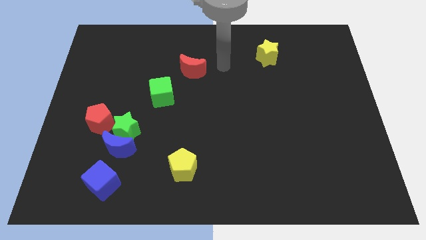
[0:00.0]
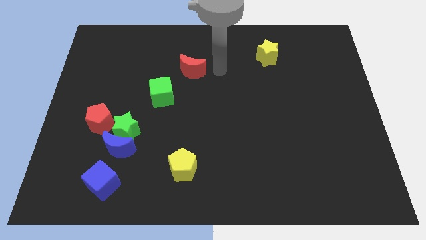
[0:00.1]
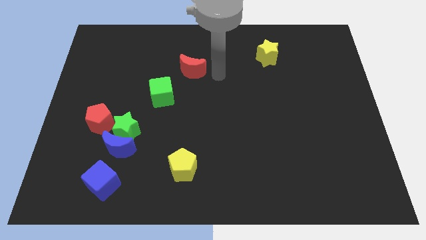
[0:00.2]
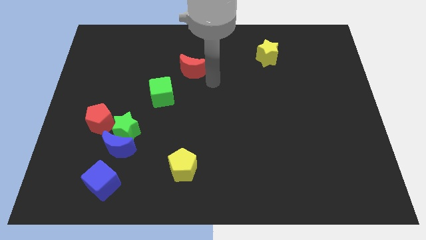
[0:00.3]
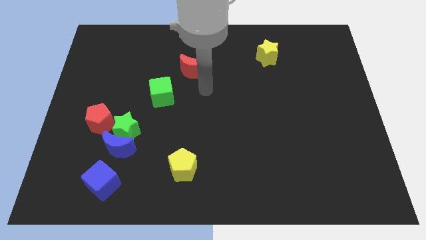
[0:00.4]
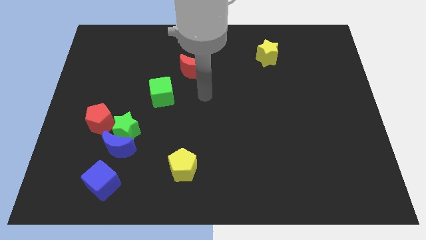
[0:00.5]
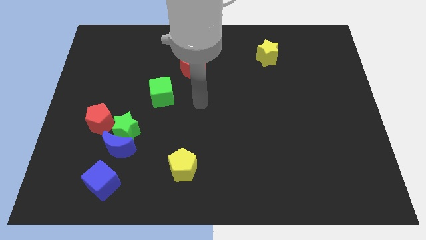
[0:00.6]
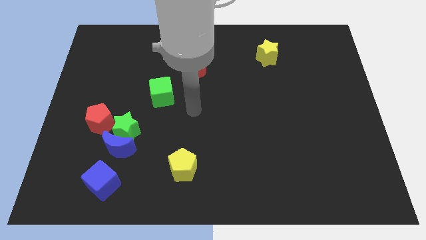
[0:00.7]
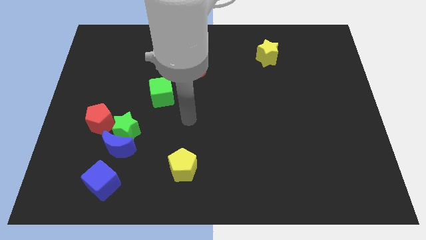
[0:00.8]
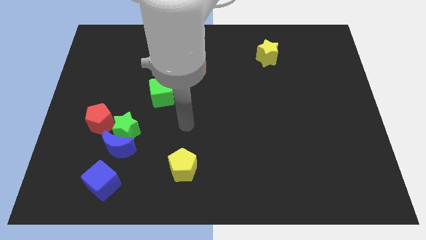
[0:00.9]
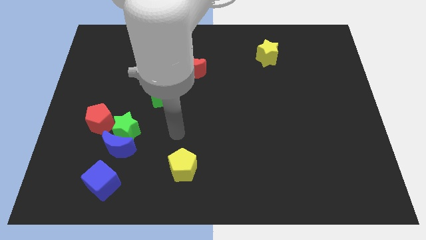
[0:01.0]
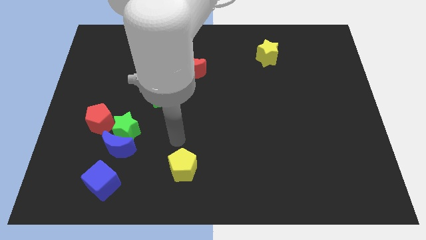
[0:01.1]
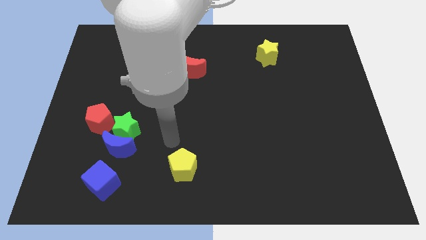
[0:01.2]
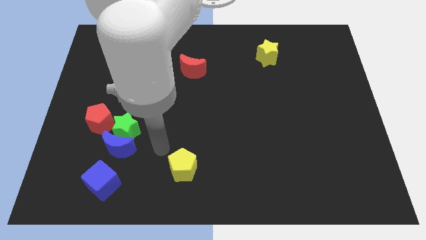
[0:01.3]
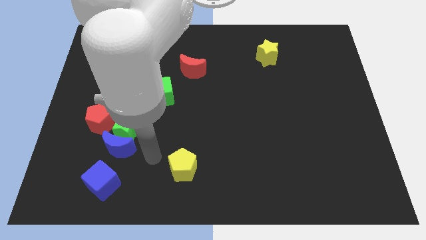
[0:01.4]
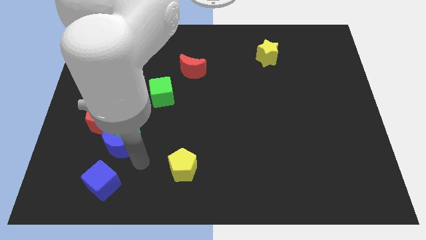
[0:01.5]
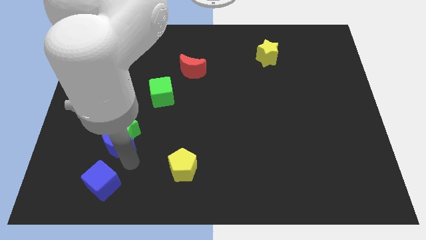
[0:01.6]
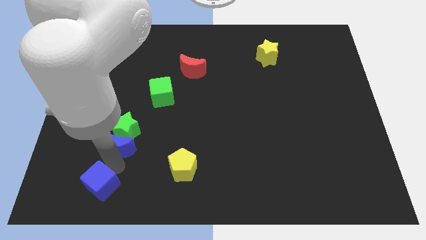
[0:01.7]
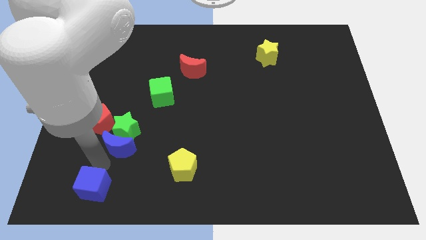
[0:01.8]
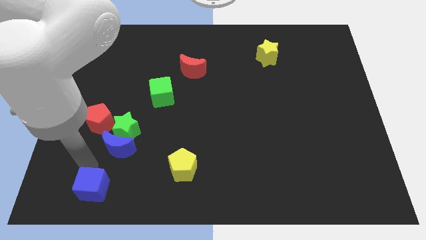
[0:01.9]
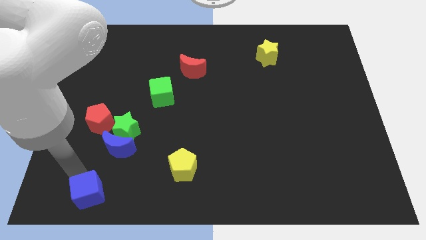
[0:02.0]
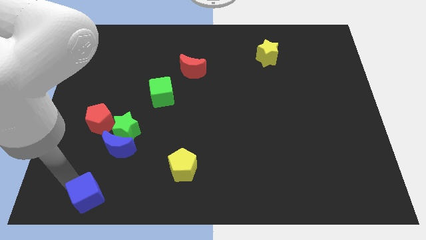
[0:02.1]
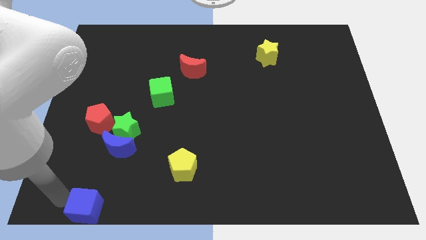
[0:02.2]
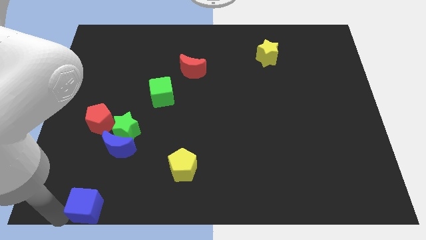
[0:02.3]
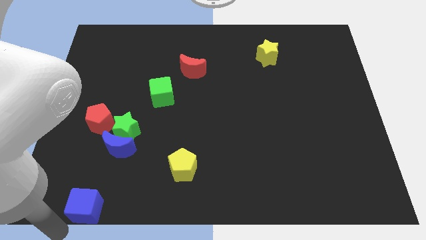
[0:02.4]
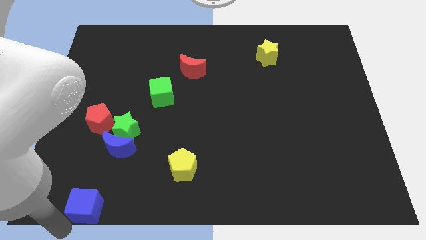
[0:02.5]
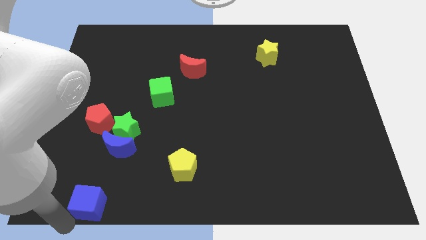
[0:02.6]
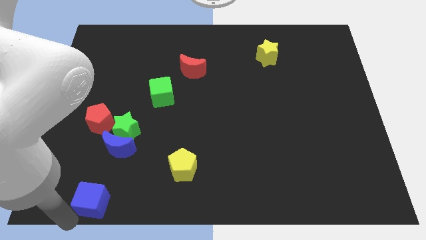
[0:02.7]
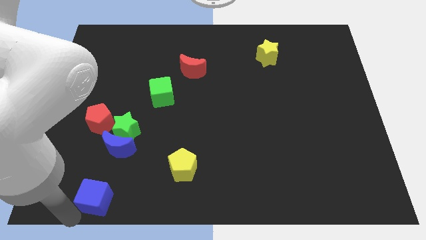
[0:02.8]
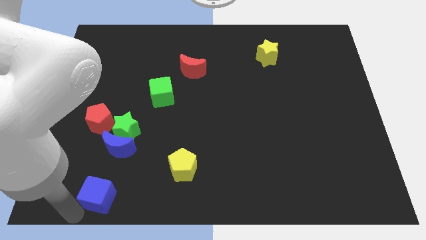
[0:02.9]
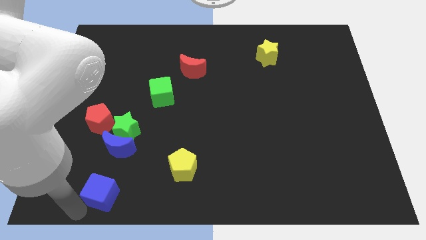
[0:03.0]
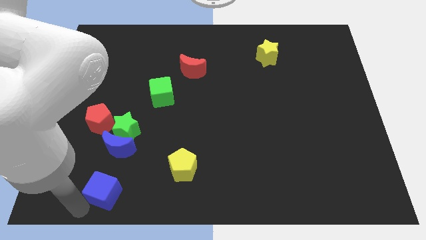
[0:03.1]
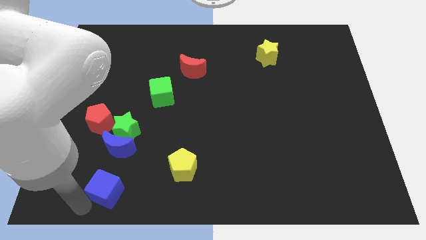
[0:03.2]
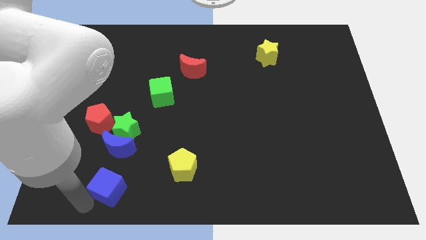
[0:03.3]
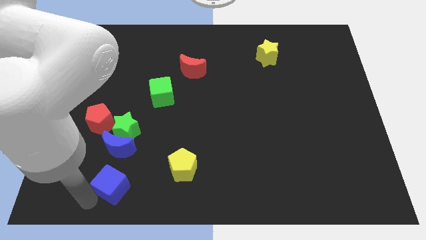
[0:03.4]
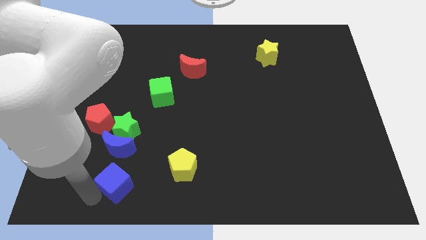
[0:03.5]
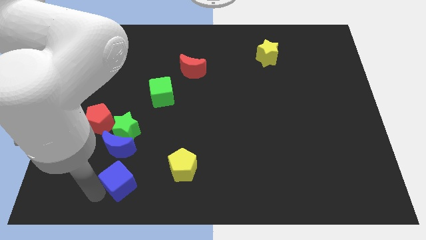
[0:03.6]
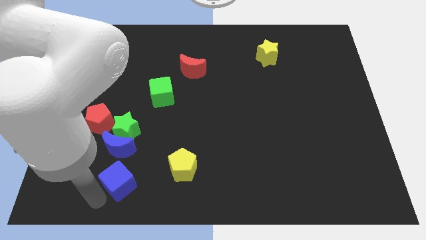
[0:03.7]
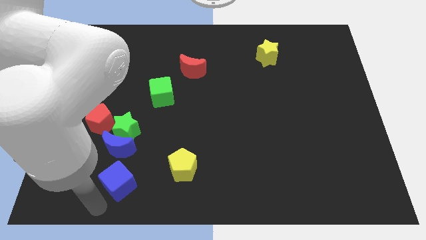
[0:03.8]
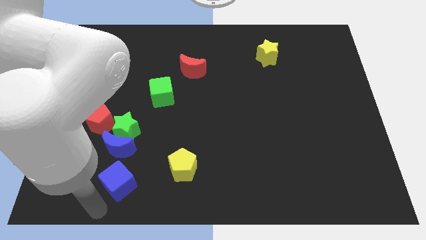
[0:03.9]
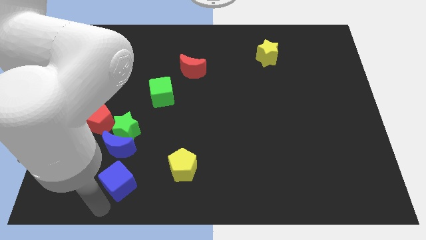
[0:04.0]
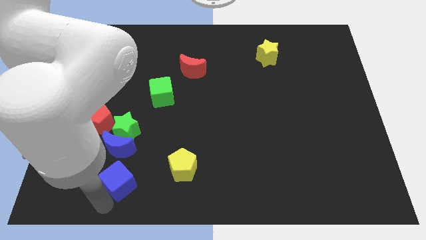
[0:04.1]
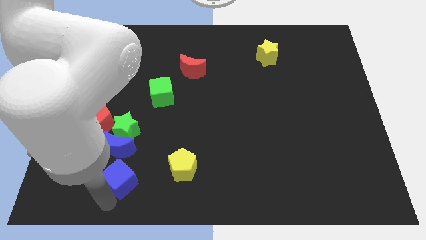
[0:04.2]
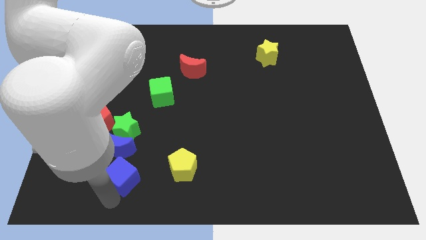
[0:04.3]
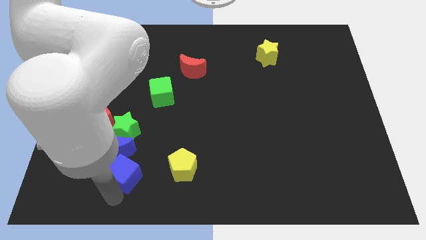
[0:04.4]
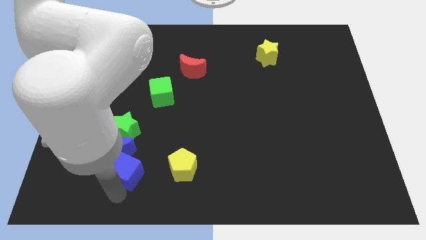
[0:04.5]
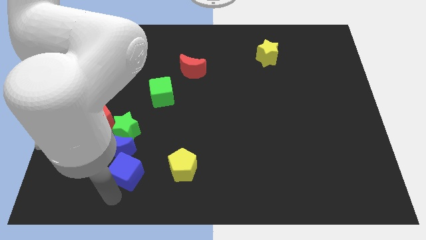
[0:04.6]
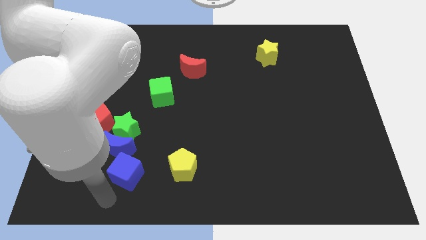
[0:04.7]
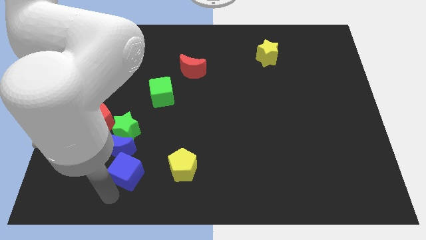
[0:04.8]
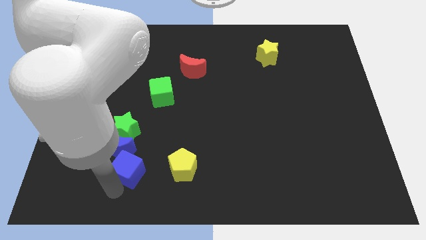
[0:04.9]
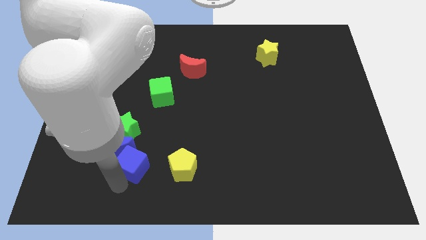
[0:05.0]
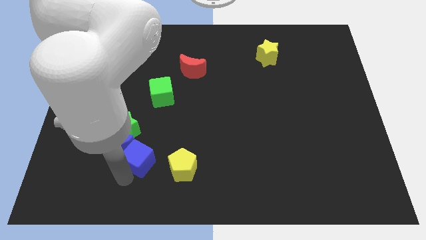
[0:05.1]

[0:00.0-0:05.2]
push the blue cube a little bit diagonally up and to the right

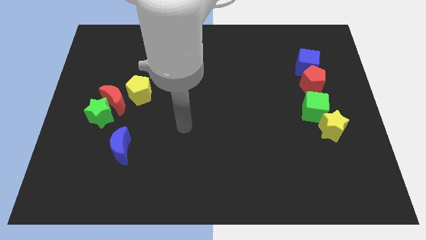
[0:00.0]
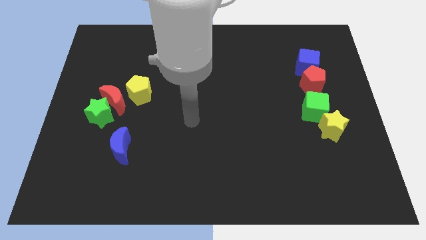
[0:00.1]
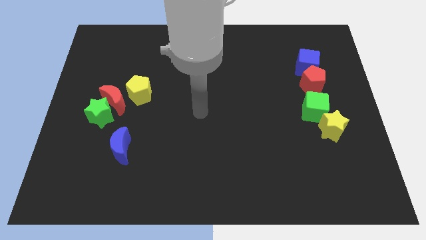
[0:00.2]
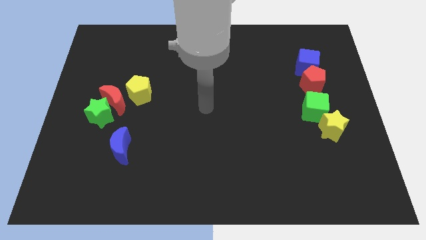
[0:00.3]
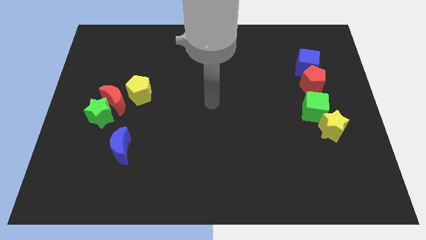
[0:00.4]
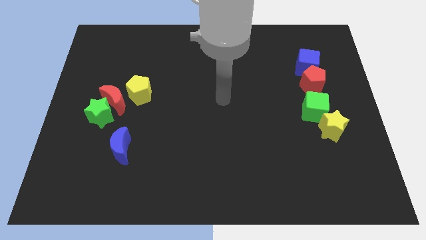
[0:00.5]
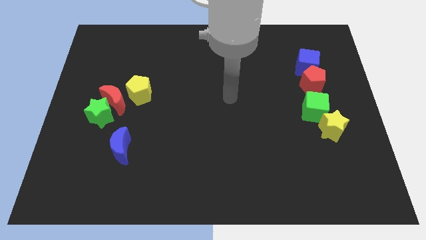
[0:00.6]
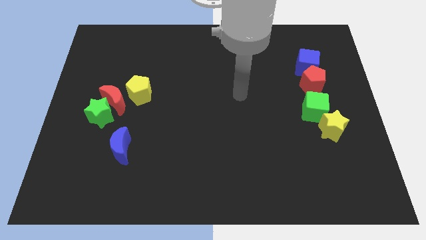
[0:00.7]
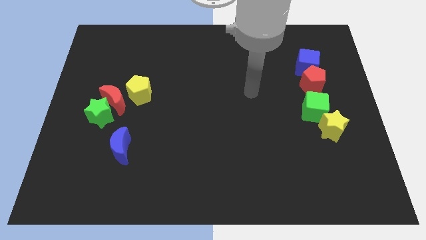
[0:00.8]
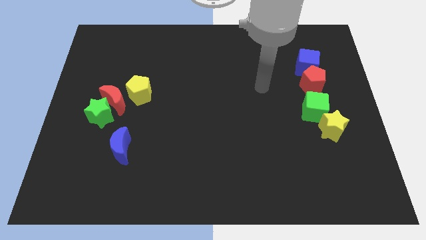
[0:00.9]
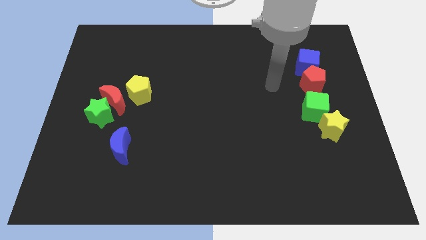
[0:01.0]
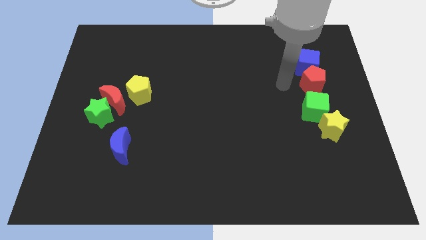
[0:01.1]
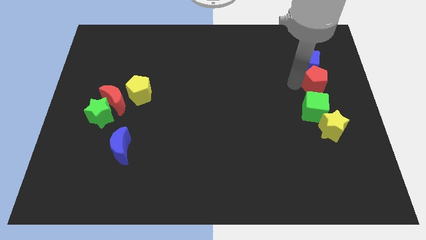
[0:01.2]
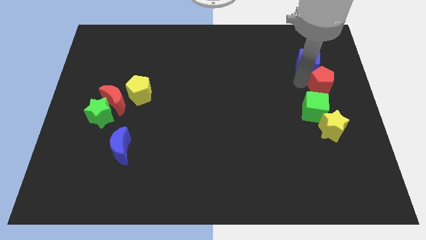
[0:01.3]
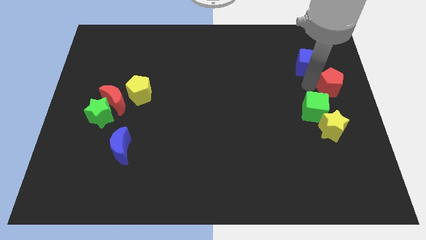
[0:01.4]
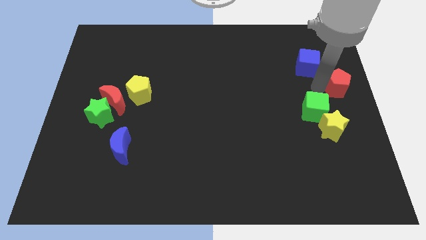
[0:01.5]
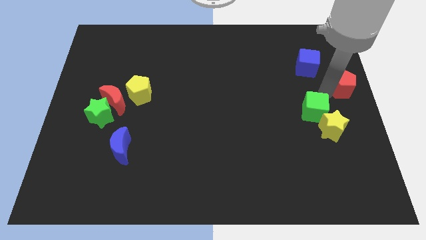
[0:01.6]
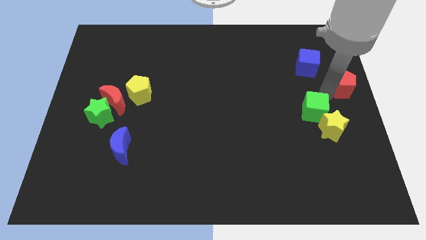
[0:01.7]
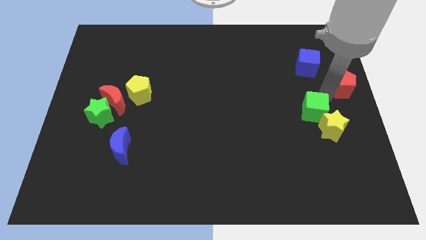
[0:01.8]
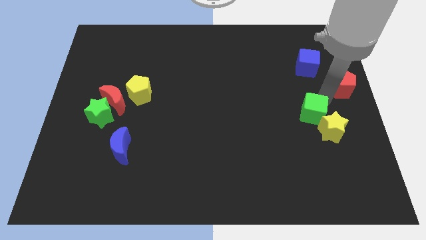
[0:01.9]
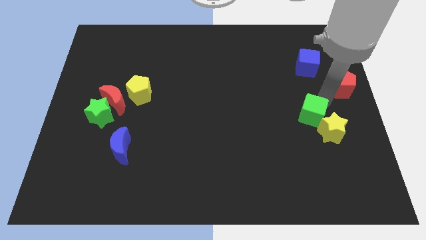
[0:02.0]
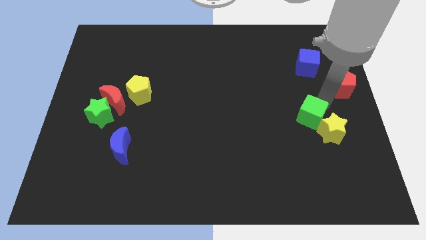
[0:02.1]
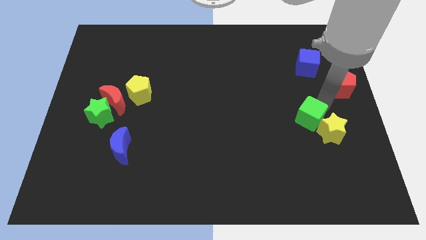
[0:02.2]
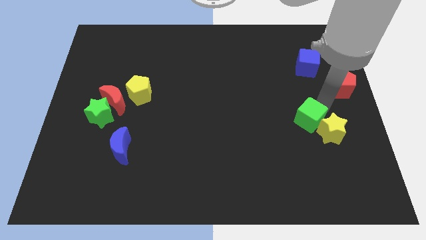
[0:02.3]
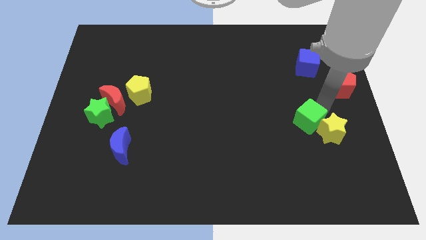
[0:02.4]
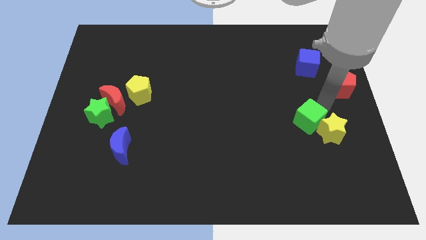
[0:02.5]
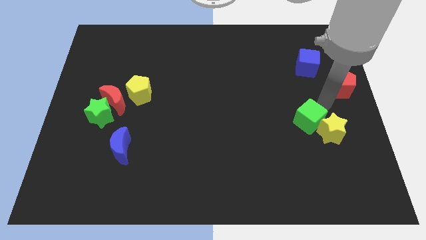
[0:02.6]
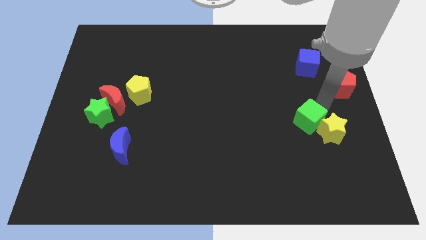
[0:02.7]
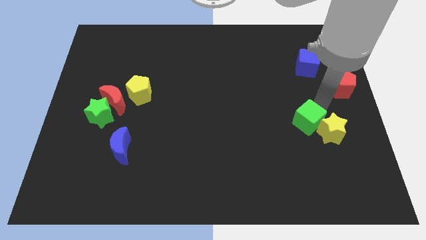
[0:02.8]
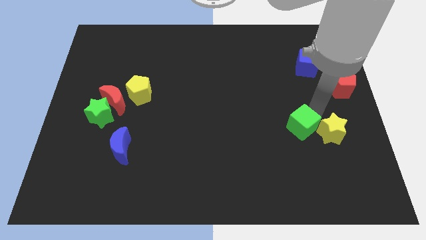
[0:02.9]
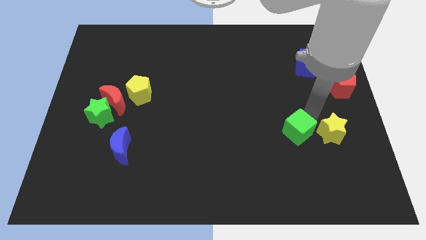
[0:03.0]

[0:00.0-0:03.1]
move the green cube down and then to the left a little bit

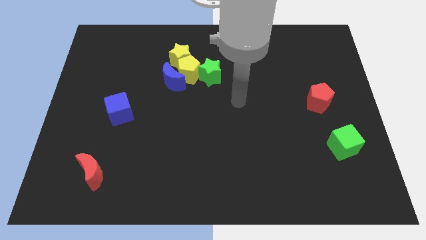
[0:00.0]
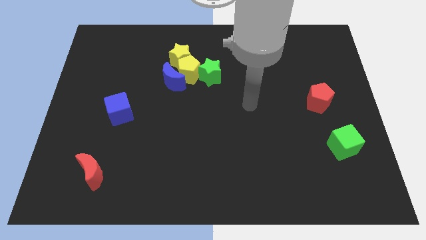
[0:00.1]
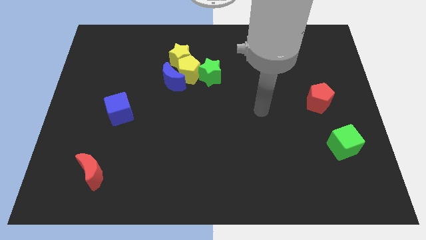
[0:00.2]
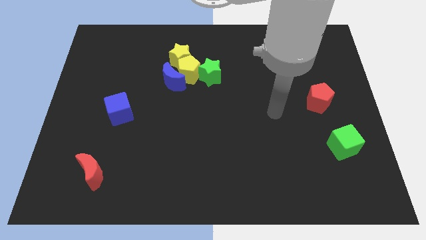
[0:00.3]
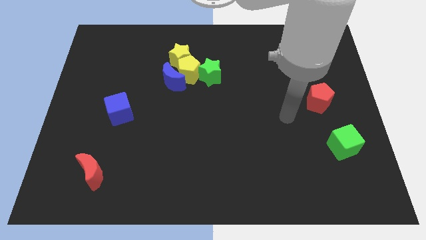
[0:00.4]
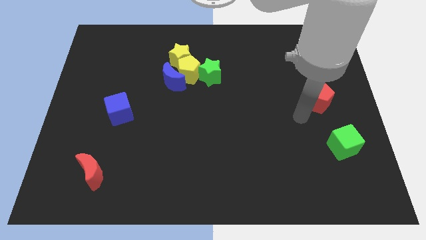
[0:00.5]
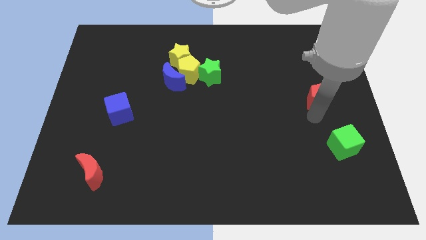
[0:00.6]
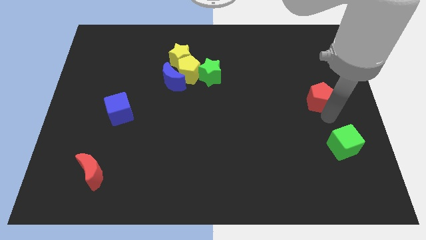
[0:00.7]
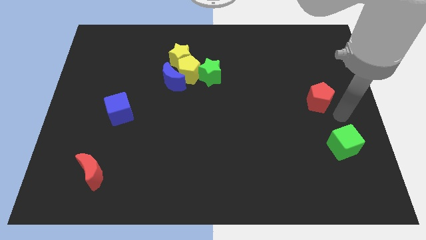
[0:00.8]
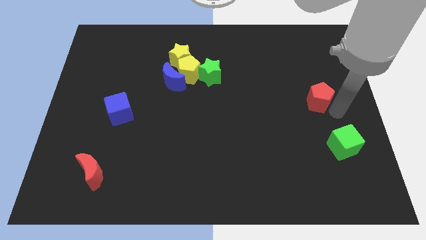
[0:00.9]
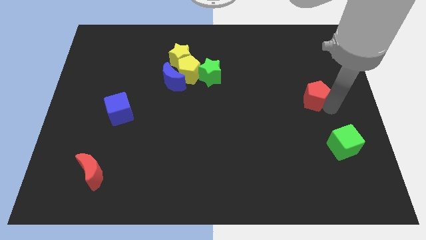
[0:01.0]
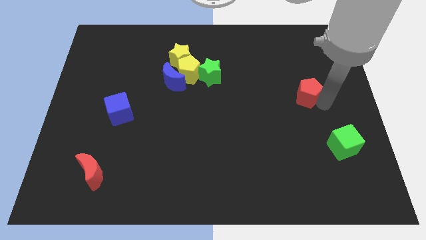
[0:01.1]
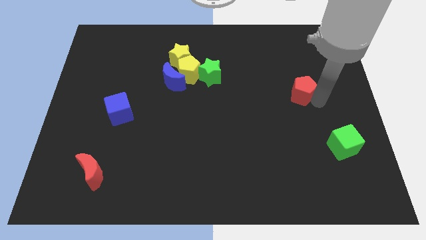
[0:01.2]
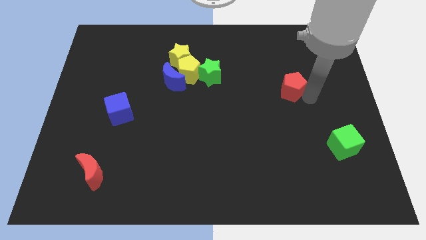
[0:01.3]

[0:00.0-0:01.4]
push the red pentagon a bit diagonally upwards and to the left
